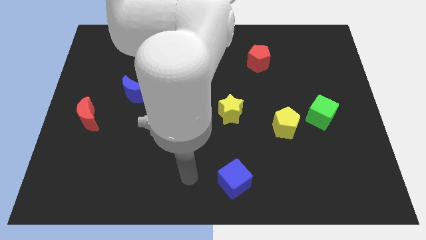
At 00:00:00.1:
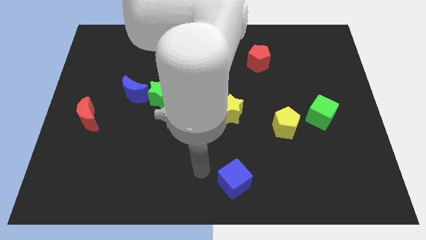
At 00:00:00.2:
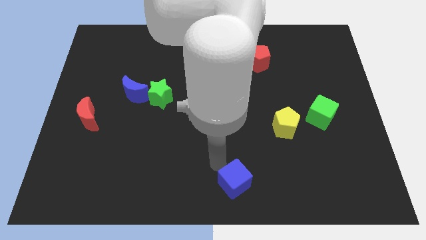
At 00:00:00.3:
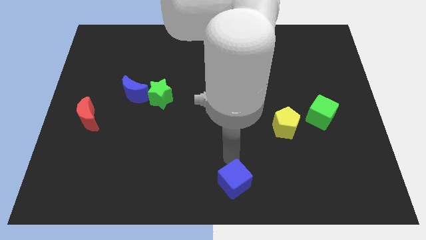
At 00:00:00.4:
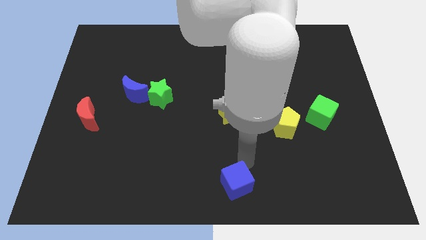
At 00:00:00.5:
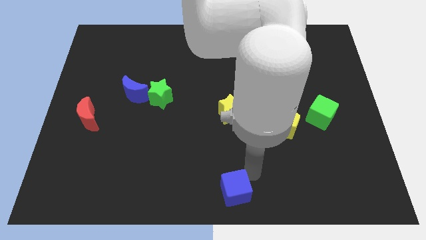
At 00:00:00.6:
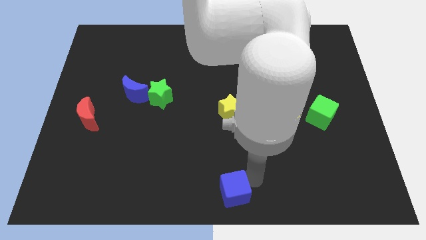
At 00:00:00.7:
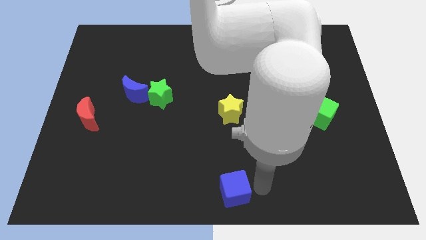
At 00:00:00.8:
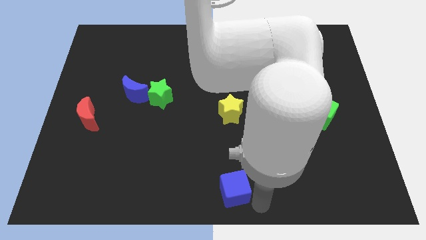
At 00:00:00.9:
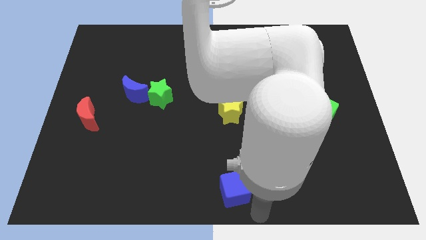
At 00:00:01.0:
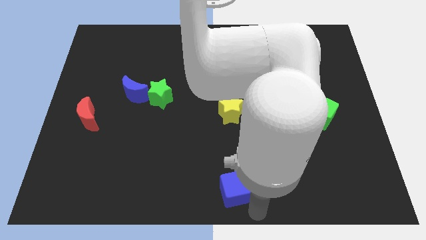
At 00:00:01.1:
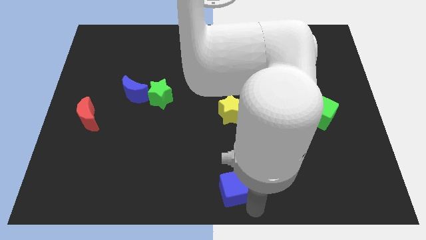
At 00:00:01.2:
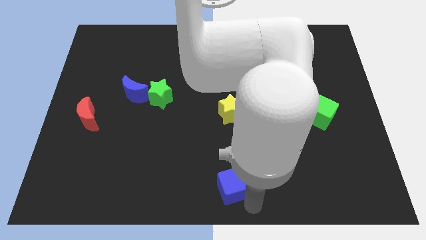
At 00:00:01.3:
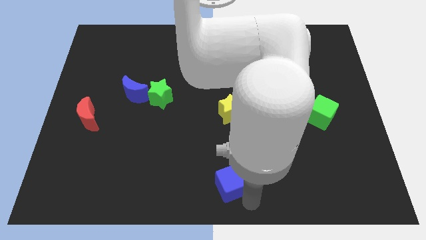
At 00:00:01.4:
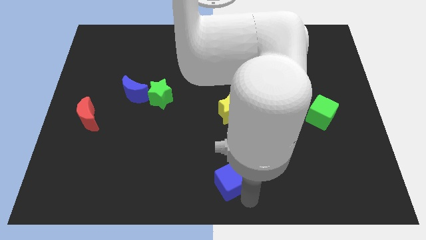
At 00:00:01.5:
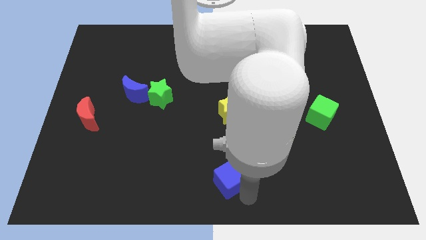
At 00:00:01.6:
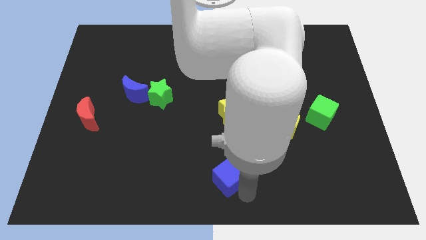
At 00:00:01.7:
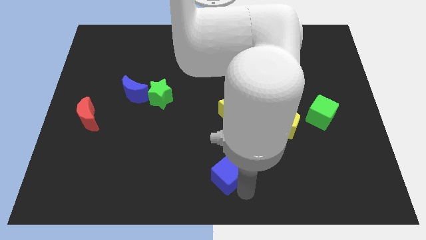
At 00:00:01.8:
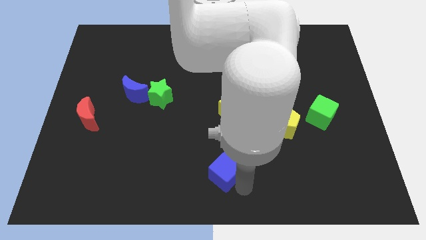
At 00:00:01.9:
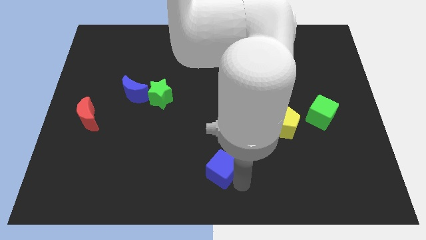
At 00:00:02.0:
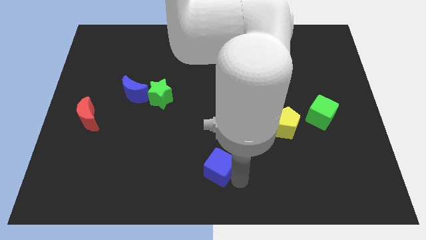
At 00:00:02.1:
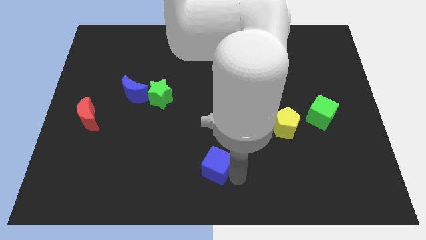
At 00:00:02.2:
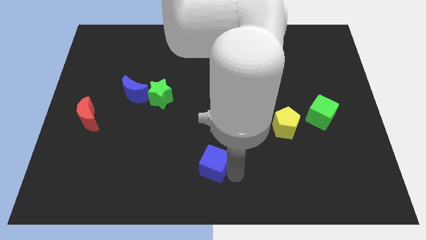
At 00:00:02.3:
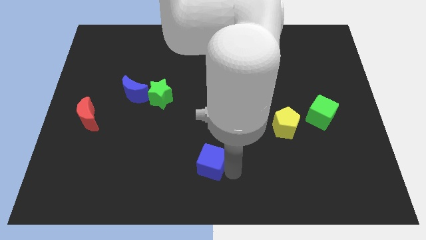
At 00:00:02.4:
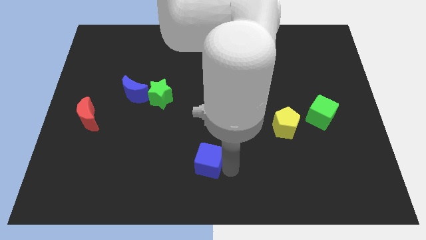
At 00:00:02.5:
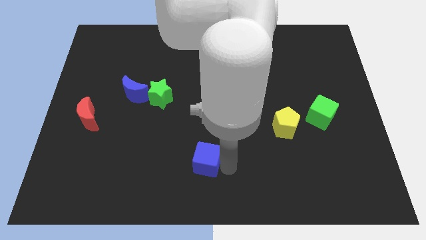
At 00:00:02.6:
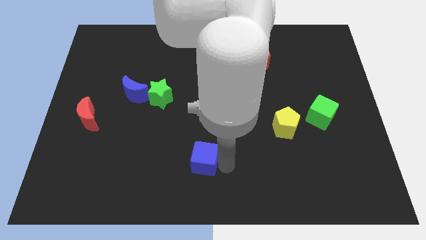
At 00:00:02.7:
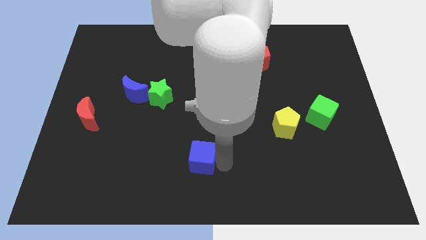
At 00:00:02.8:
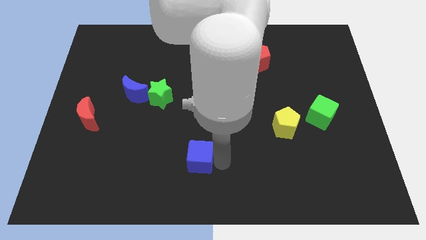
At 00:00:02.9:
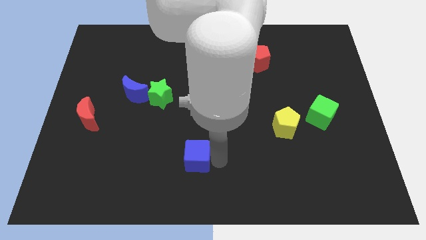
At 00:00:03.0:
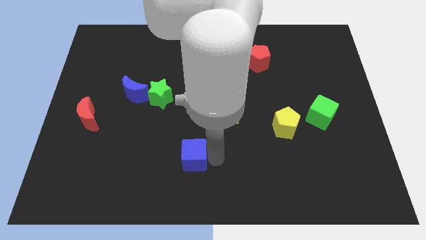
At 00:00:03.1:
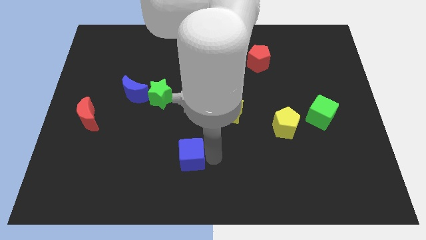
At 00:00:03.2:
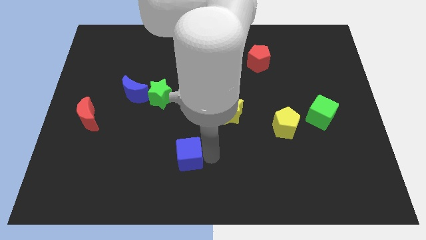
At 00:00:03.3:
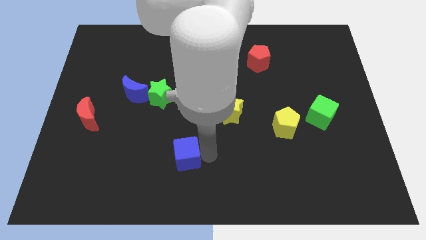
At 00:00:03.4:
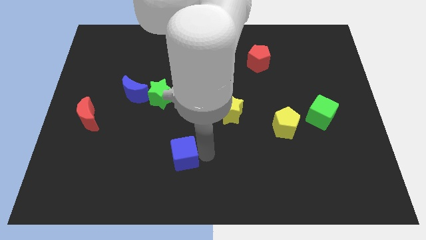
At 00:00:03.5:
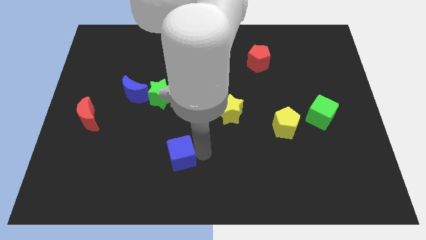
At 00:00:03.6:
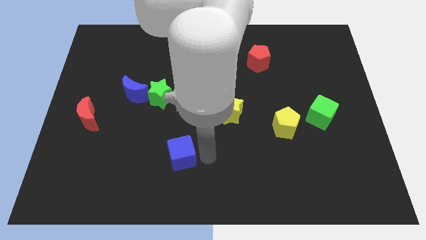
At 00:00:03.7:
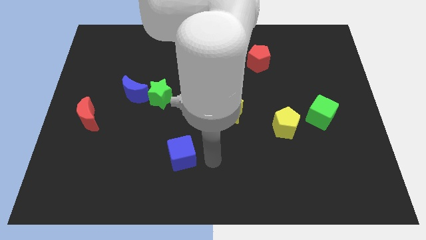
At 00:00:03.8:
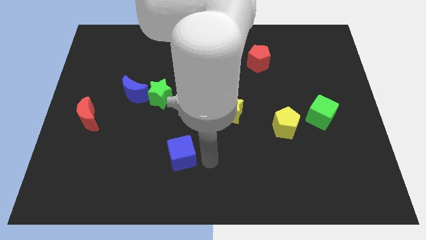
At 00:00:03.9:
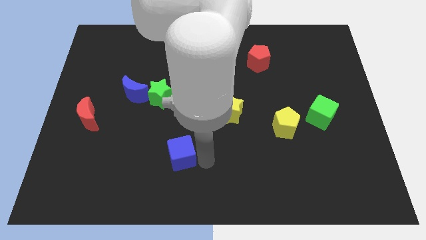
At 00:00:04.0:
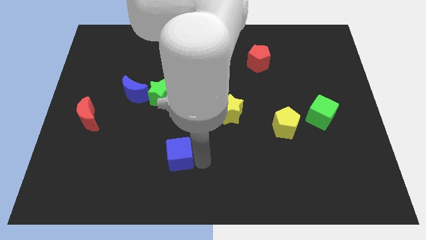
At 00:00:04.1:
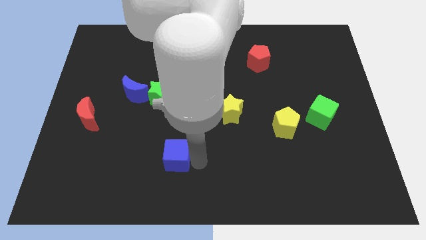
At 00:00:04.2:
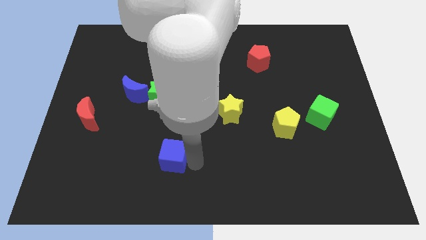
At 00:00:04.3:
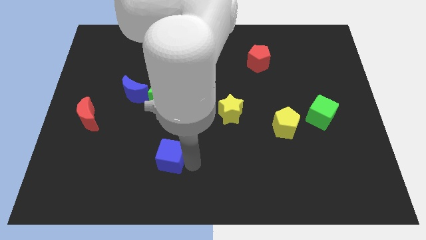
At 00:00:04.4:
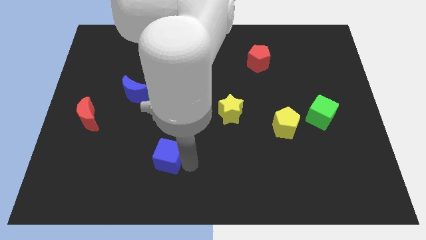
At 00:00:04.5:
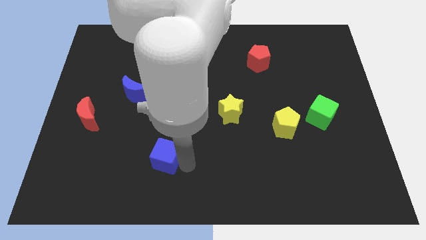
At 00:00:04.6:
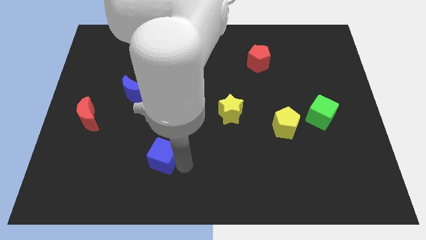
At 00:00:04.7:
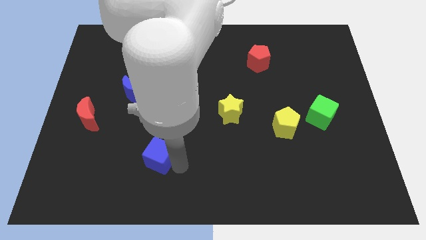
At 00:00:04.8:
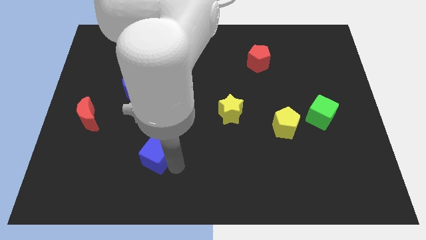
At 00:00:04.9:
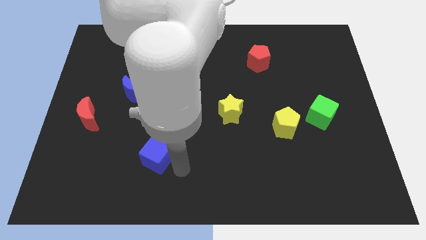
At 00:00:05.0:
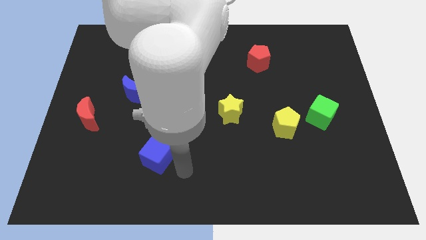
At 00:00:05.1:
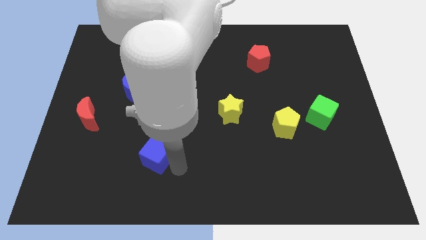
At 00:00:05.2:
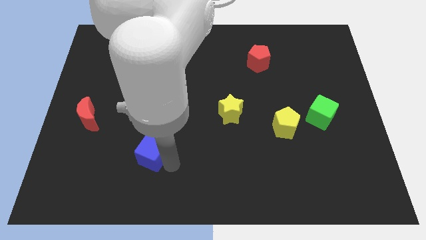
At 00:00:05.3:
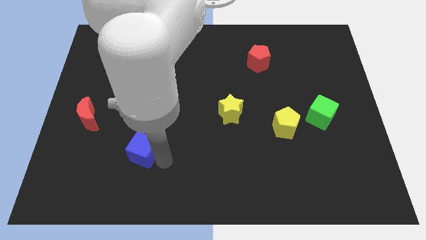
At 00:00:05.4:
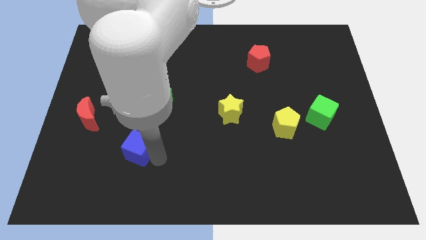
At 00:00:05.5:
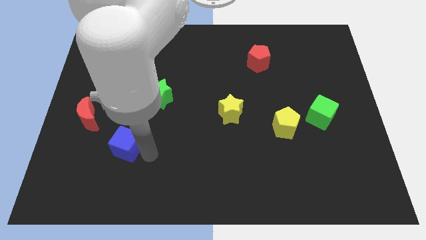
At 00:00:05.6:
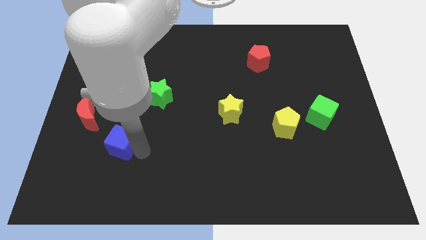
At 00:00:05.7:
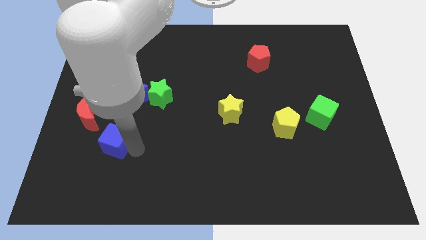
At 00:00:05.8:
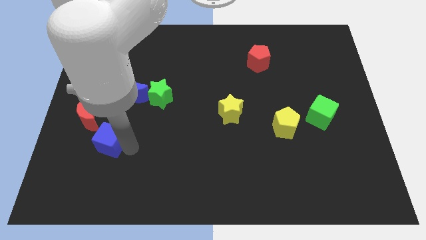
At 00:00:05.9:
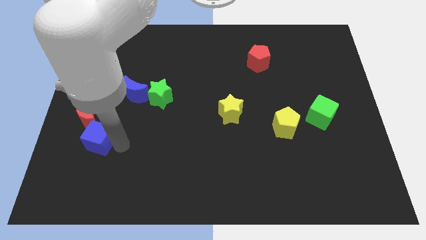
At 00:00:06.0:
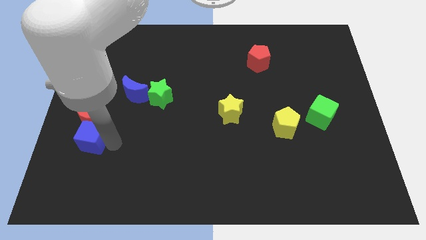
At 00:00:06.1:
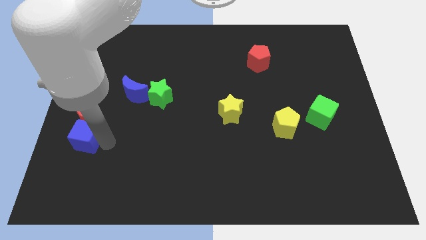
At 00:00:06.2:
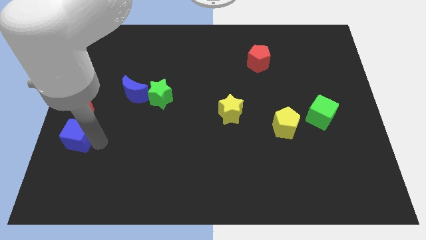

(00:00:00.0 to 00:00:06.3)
push the blue cube to the left side of the board
